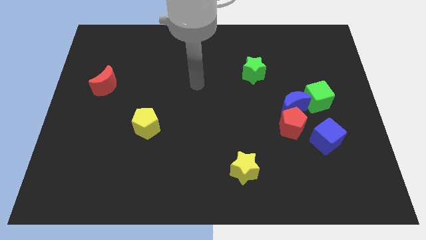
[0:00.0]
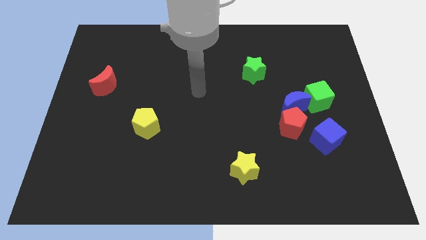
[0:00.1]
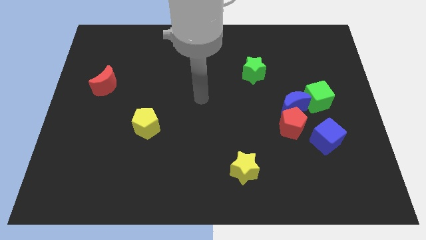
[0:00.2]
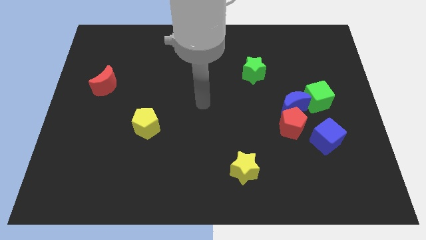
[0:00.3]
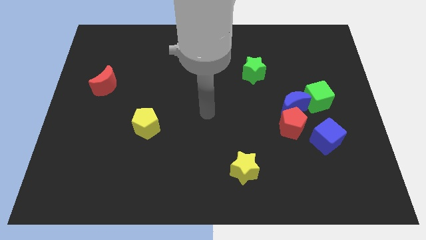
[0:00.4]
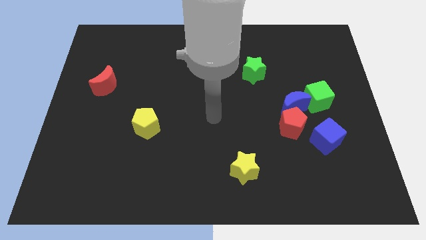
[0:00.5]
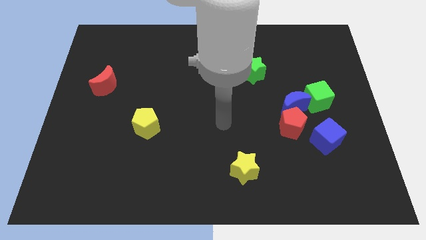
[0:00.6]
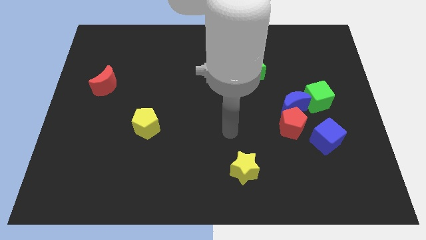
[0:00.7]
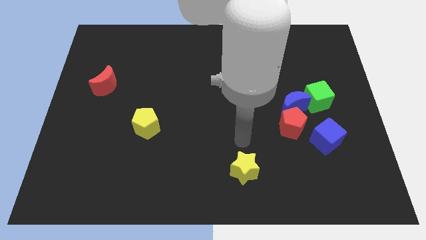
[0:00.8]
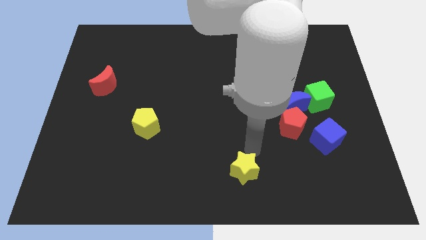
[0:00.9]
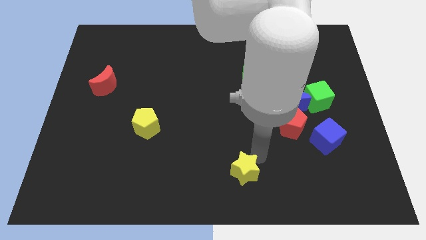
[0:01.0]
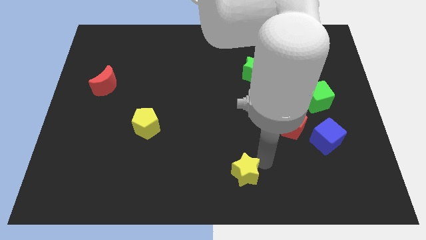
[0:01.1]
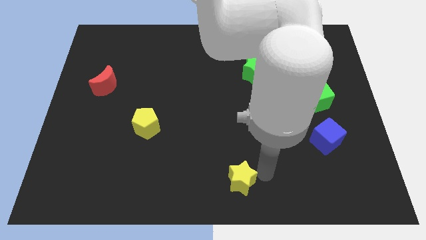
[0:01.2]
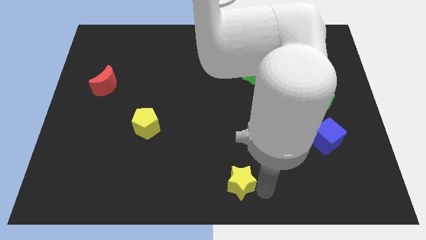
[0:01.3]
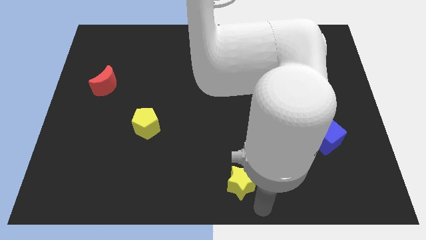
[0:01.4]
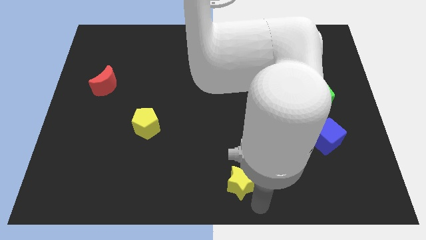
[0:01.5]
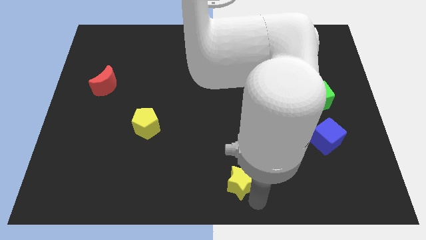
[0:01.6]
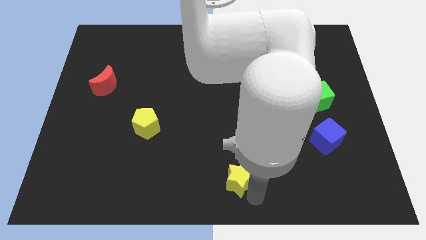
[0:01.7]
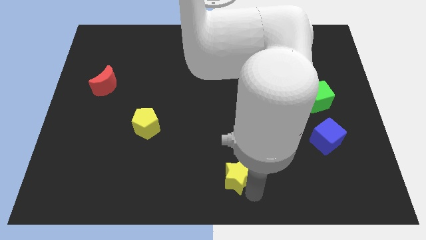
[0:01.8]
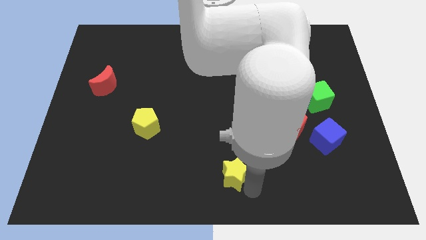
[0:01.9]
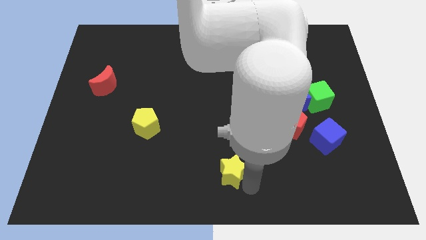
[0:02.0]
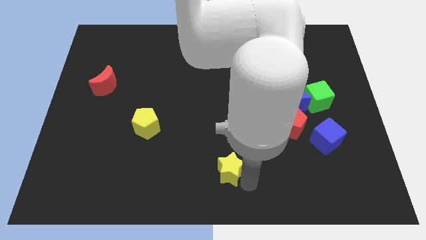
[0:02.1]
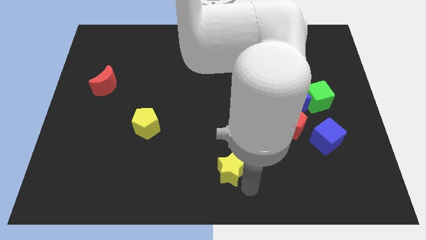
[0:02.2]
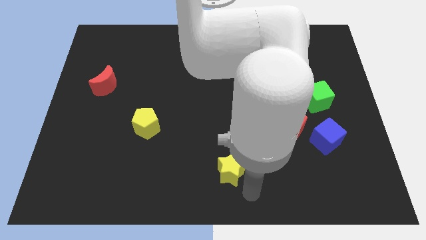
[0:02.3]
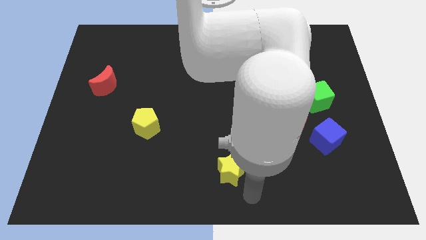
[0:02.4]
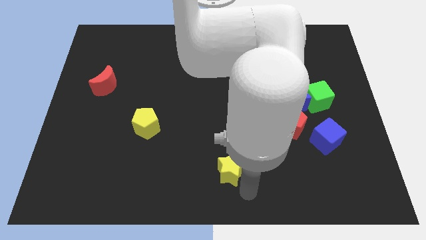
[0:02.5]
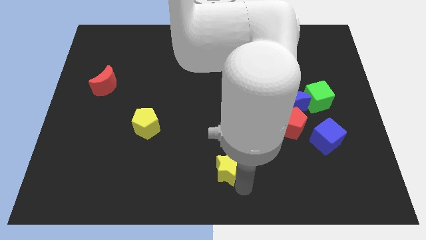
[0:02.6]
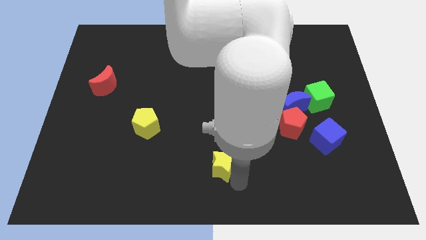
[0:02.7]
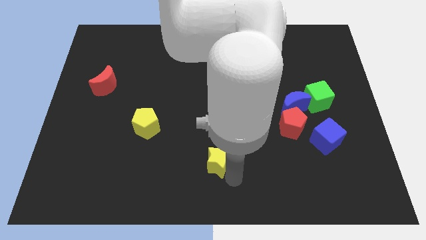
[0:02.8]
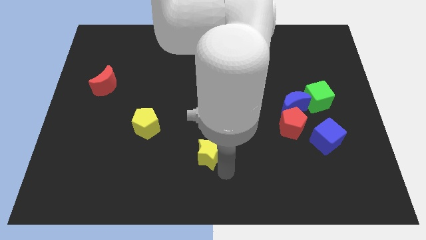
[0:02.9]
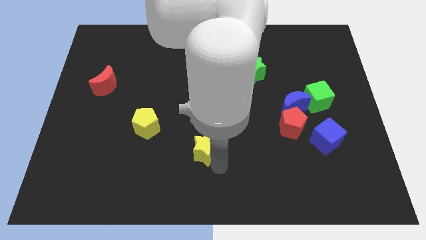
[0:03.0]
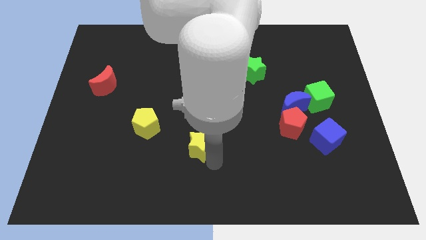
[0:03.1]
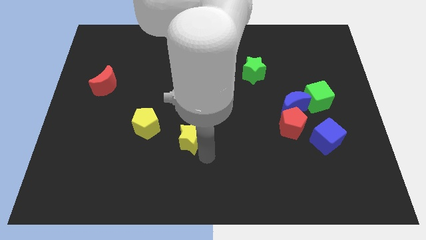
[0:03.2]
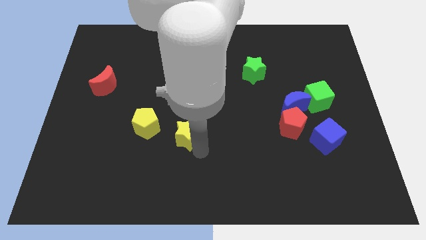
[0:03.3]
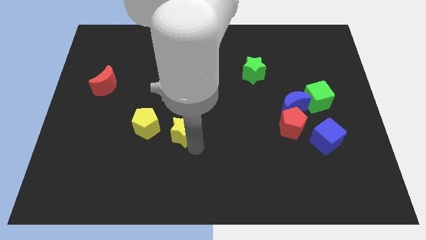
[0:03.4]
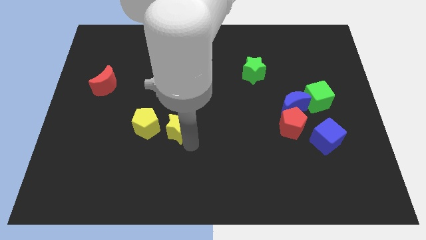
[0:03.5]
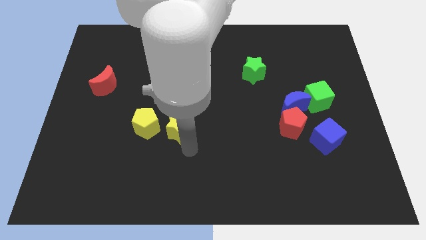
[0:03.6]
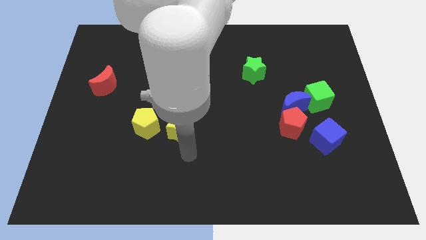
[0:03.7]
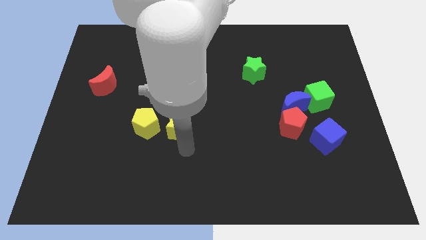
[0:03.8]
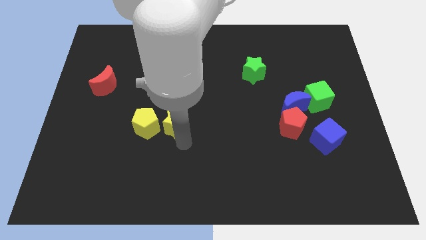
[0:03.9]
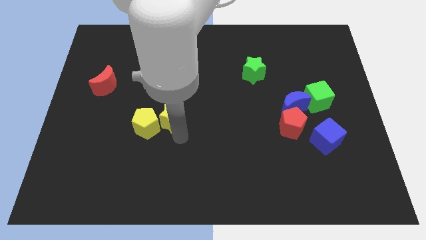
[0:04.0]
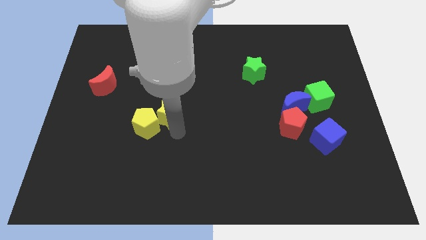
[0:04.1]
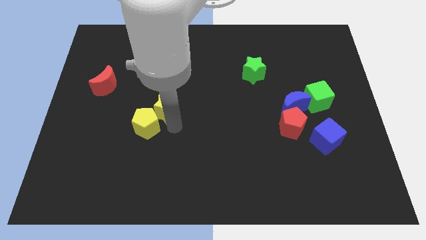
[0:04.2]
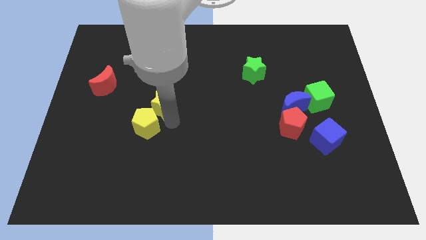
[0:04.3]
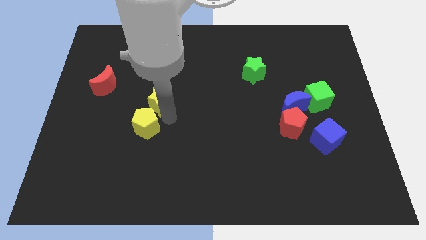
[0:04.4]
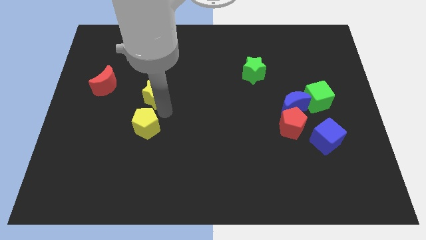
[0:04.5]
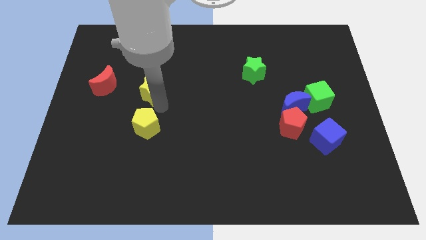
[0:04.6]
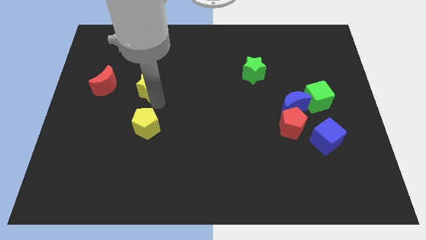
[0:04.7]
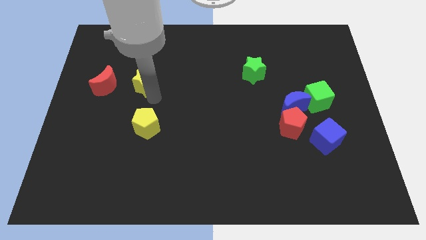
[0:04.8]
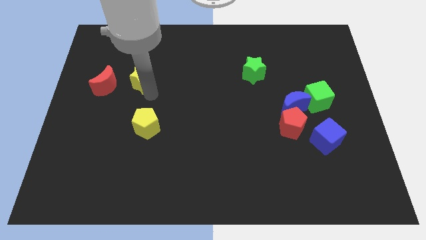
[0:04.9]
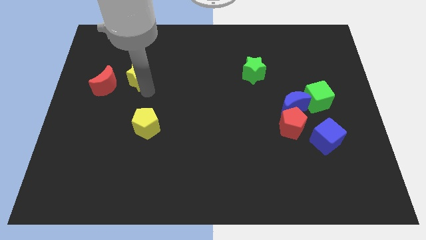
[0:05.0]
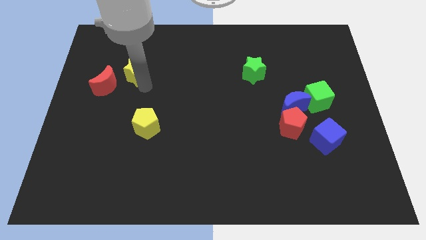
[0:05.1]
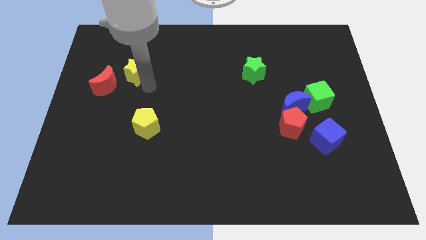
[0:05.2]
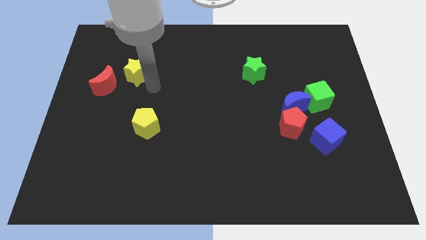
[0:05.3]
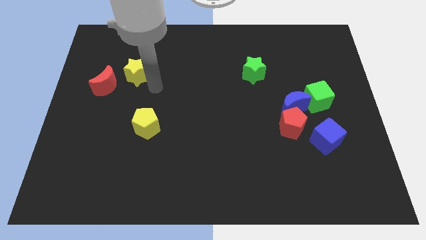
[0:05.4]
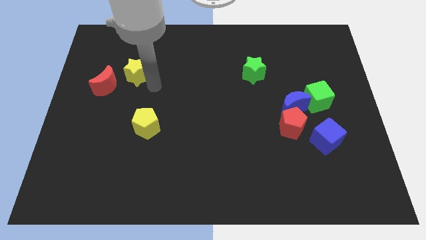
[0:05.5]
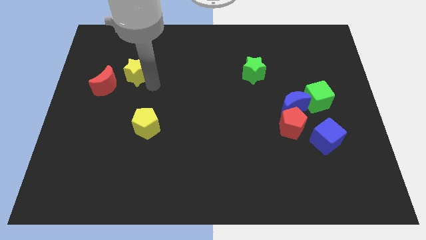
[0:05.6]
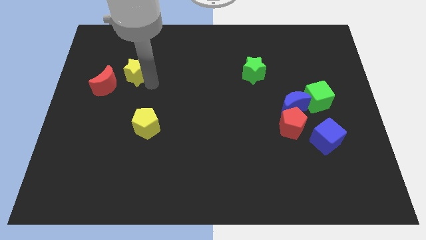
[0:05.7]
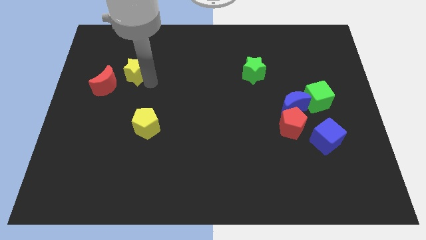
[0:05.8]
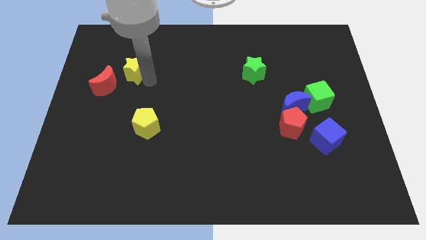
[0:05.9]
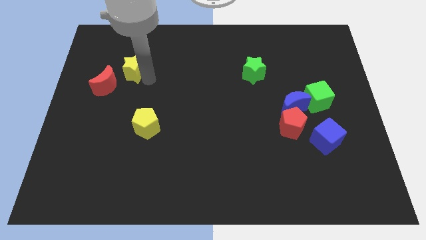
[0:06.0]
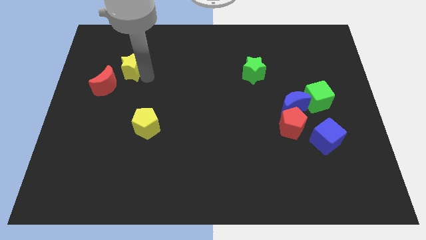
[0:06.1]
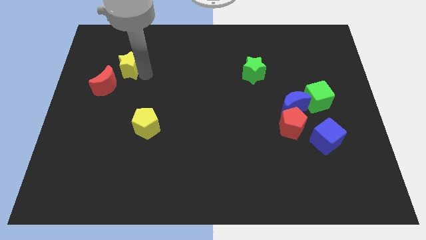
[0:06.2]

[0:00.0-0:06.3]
put the yellow star above the red moon

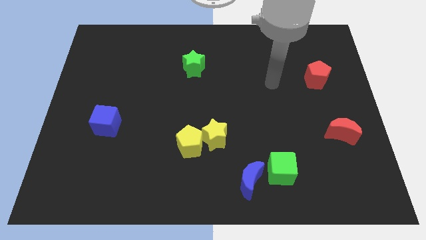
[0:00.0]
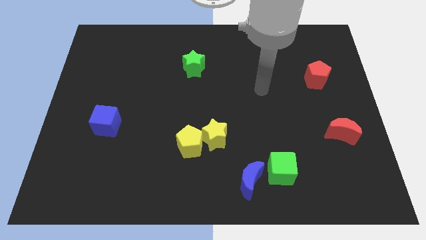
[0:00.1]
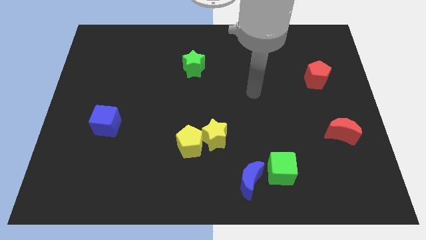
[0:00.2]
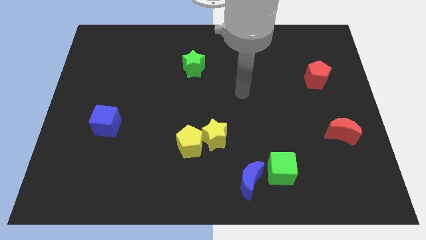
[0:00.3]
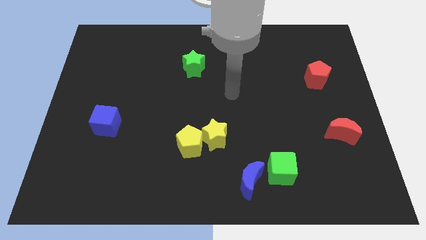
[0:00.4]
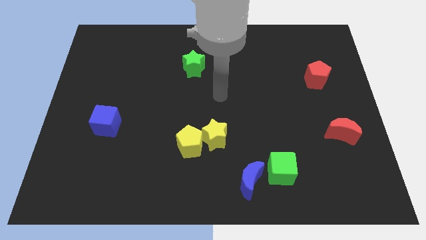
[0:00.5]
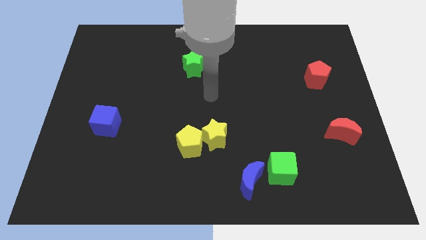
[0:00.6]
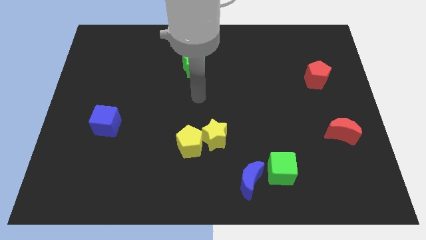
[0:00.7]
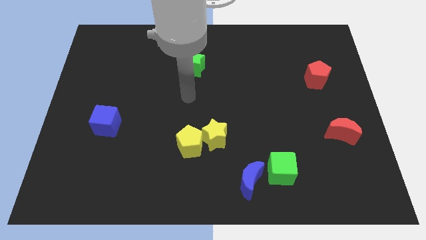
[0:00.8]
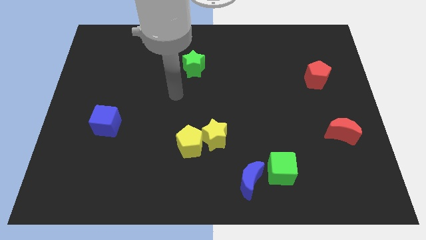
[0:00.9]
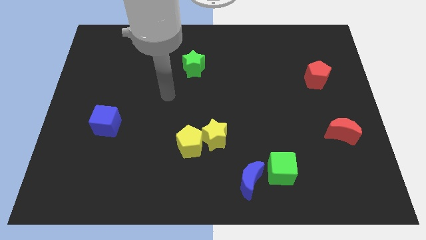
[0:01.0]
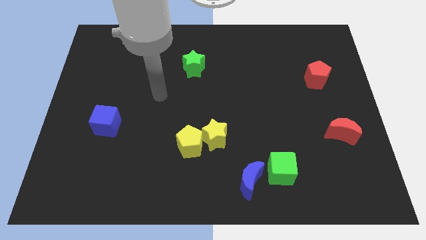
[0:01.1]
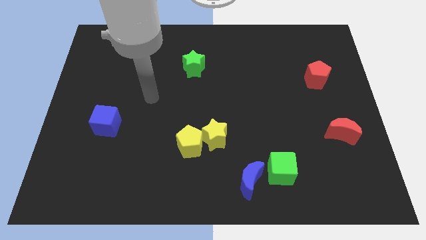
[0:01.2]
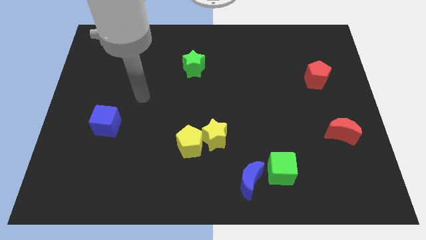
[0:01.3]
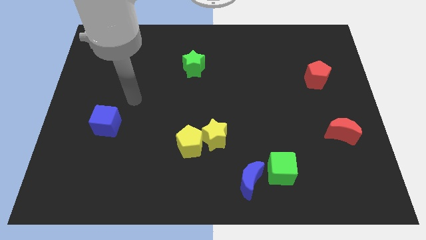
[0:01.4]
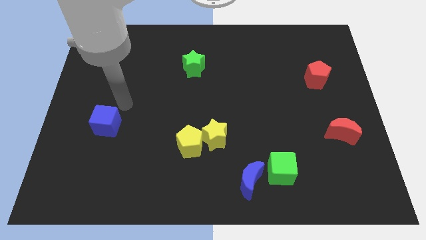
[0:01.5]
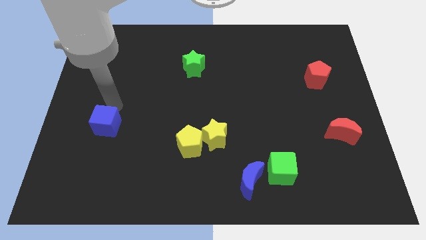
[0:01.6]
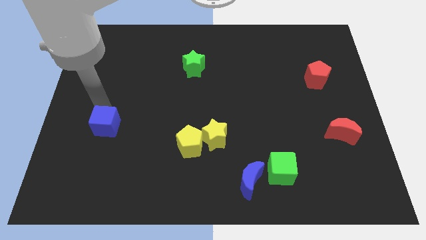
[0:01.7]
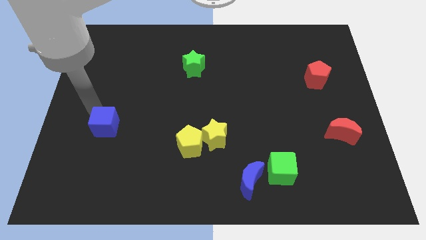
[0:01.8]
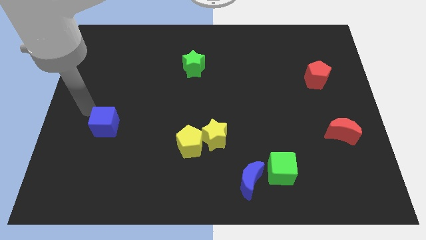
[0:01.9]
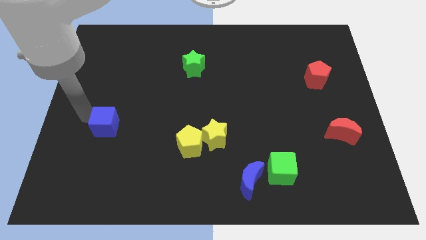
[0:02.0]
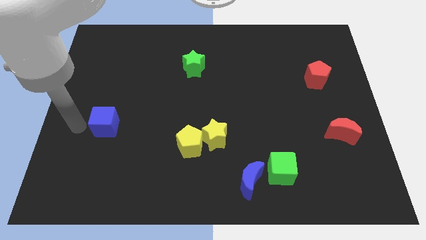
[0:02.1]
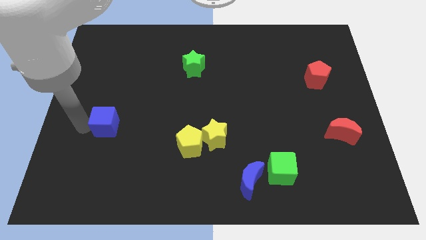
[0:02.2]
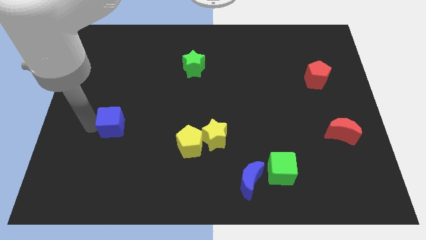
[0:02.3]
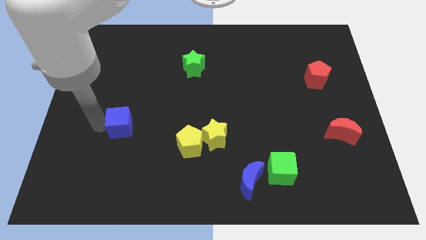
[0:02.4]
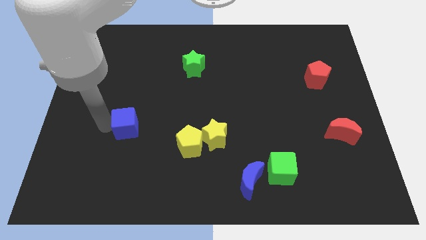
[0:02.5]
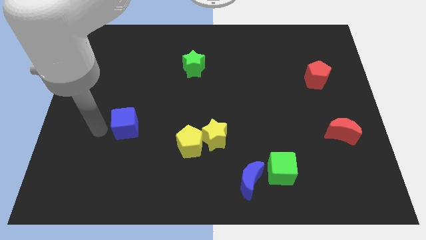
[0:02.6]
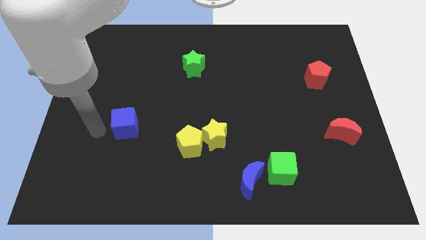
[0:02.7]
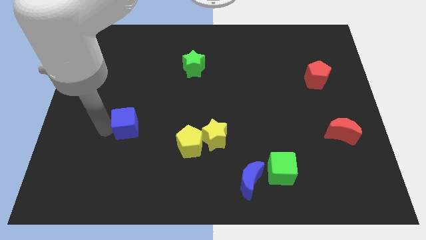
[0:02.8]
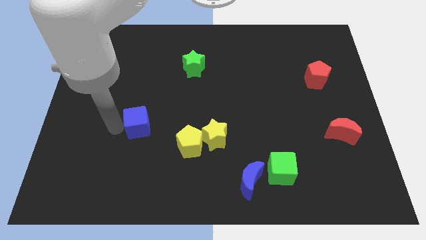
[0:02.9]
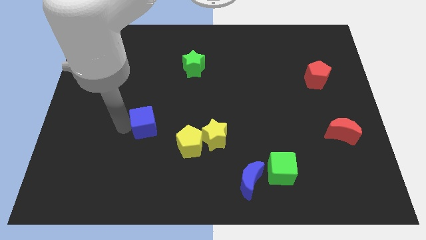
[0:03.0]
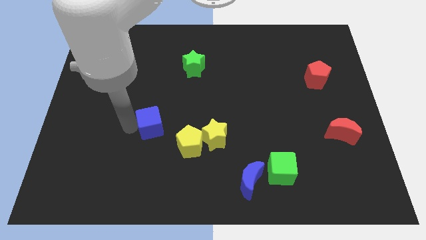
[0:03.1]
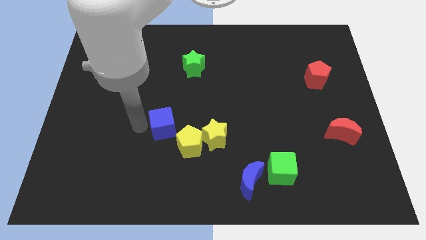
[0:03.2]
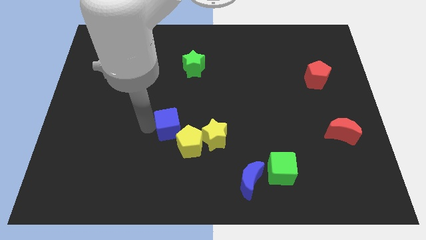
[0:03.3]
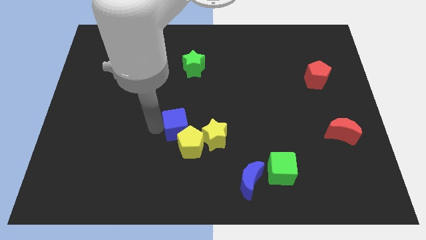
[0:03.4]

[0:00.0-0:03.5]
push the blue cube diagonally up and to the left of the yellow star
